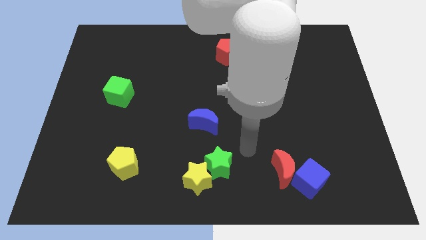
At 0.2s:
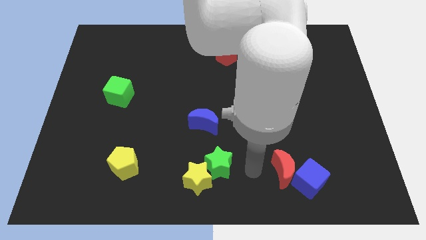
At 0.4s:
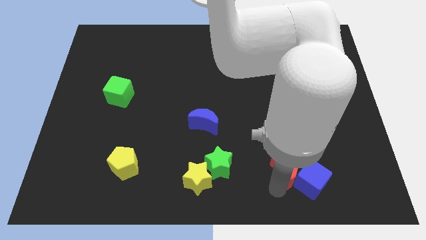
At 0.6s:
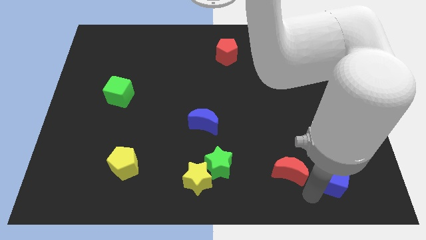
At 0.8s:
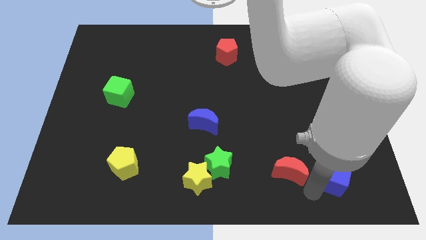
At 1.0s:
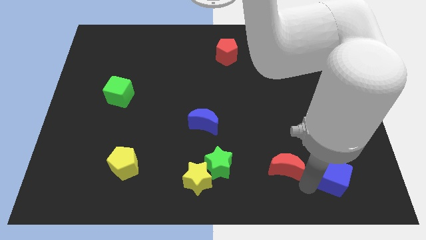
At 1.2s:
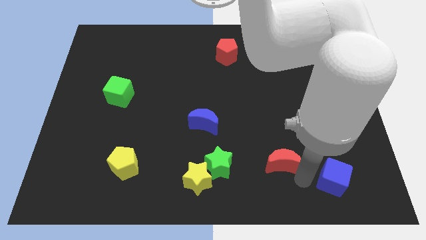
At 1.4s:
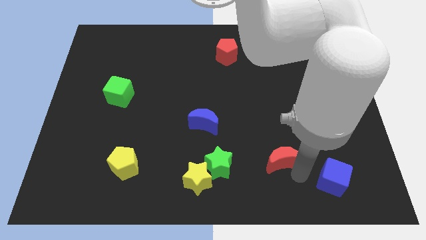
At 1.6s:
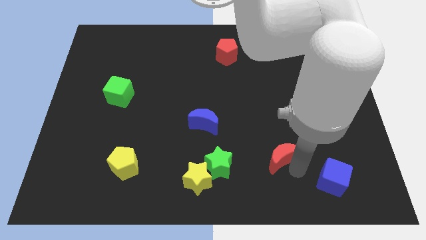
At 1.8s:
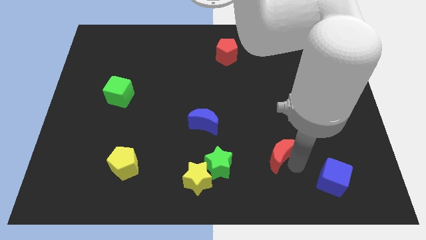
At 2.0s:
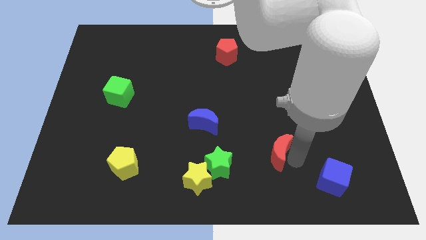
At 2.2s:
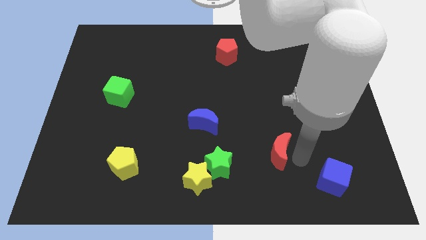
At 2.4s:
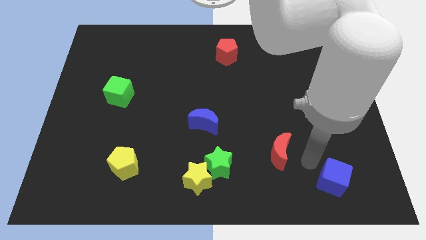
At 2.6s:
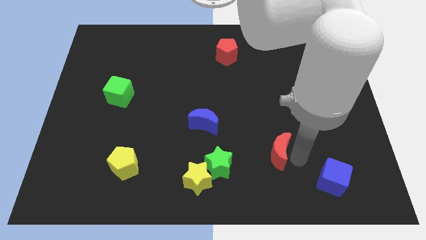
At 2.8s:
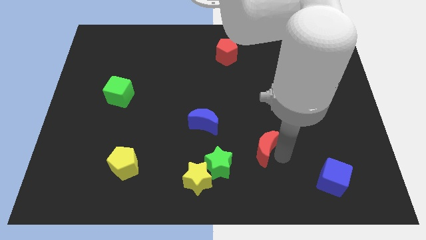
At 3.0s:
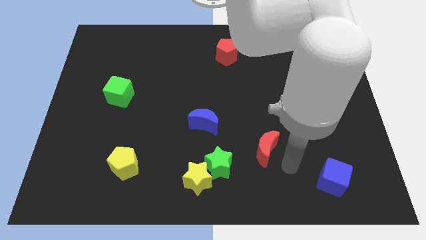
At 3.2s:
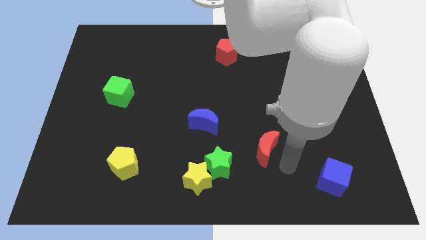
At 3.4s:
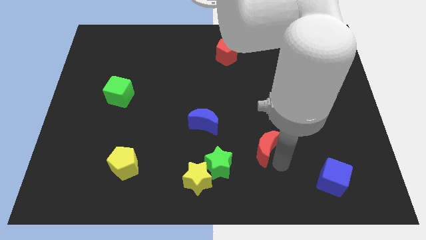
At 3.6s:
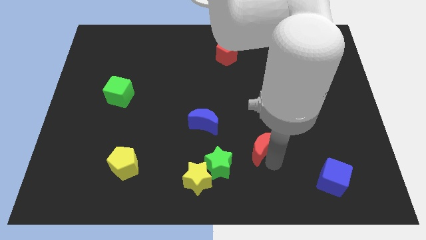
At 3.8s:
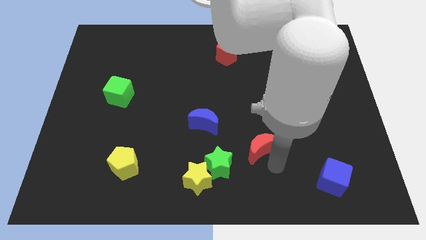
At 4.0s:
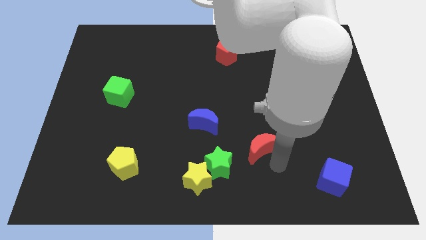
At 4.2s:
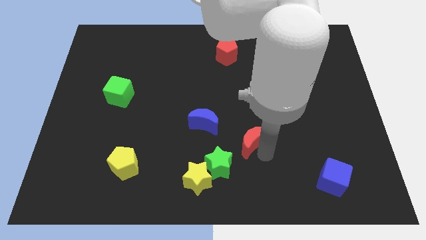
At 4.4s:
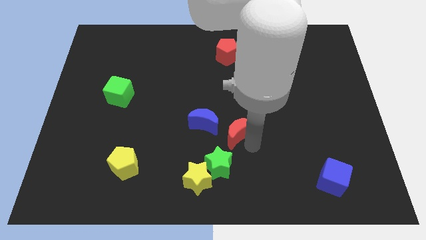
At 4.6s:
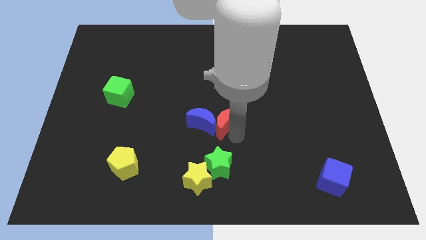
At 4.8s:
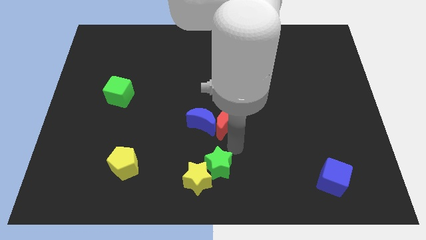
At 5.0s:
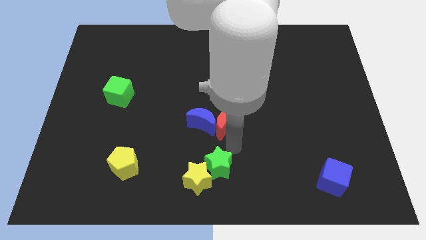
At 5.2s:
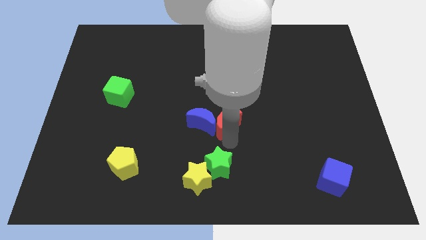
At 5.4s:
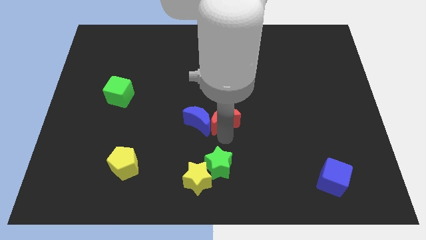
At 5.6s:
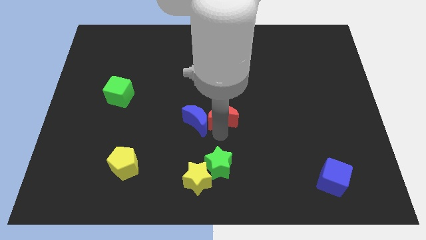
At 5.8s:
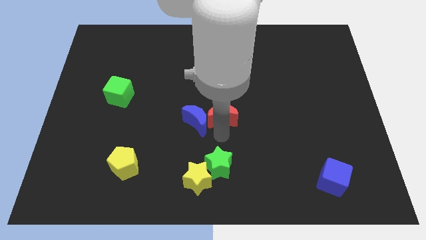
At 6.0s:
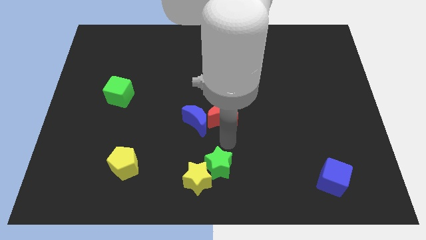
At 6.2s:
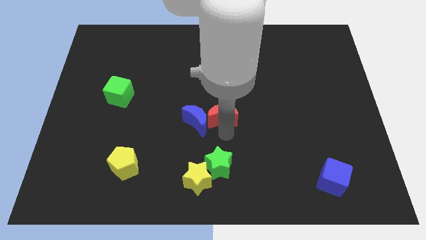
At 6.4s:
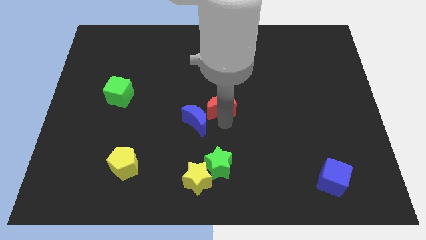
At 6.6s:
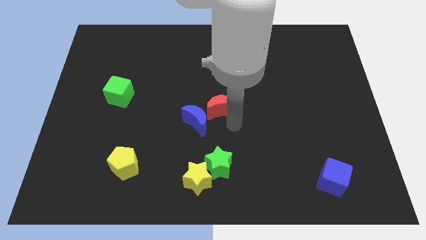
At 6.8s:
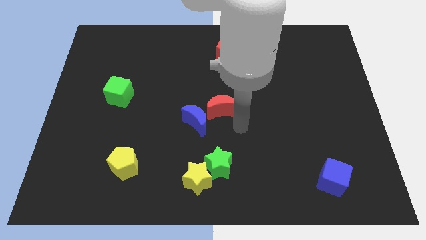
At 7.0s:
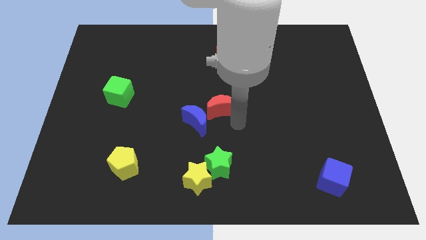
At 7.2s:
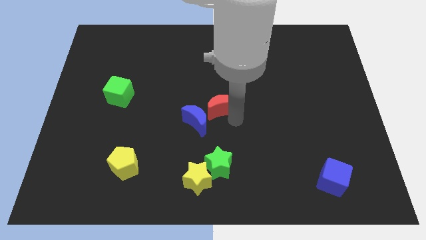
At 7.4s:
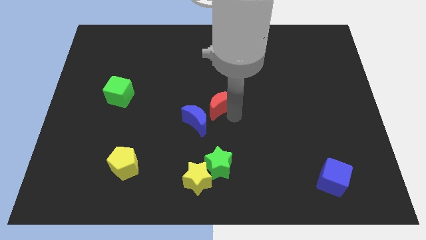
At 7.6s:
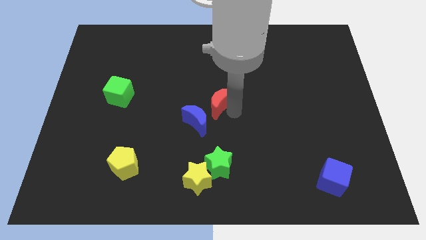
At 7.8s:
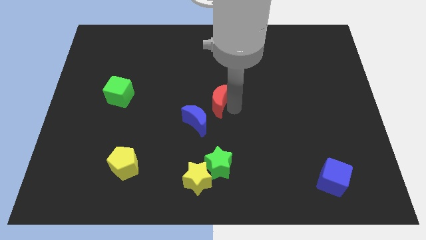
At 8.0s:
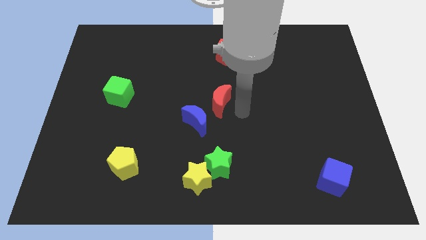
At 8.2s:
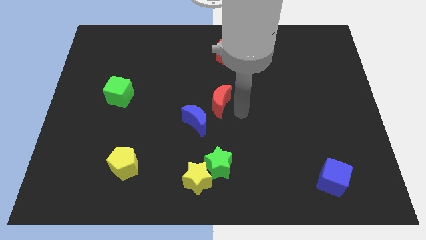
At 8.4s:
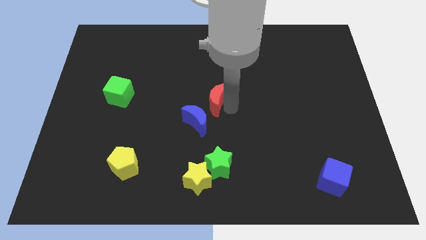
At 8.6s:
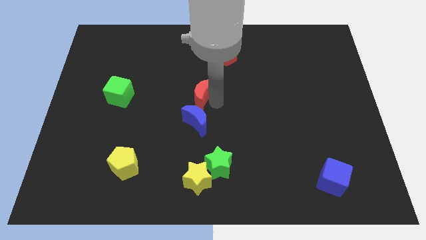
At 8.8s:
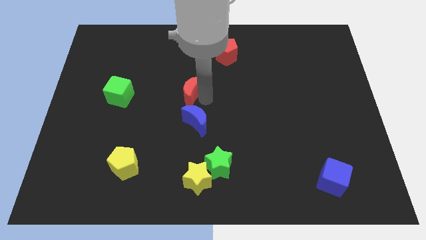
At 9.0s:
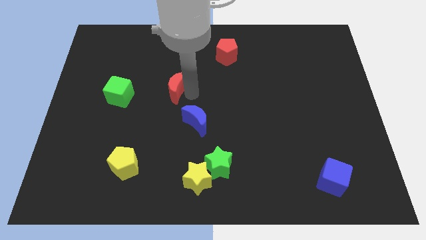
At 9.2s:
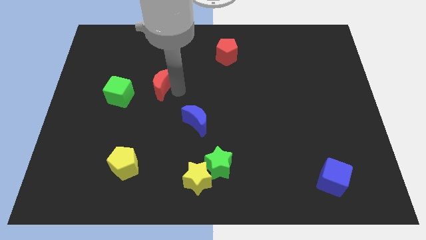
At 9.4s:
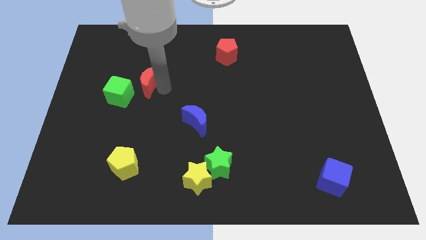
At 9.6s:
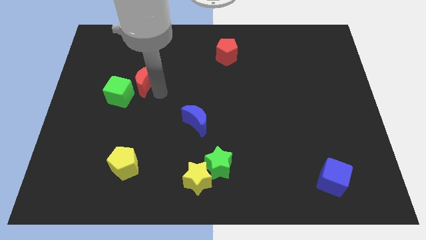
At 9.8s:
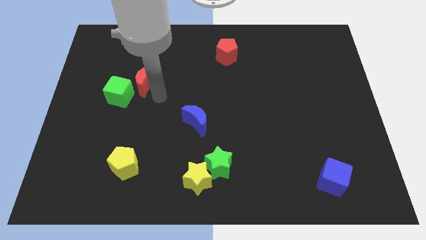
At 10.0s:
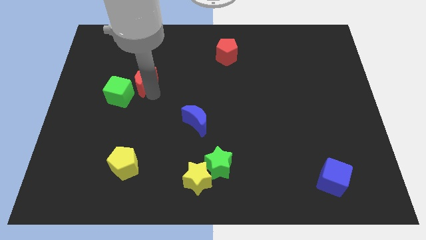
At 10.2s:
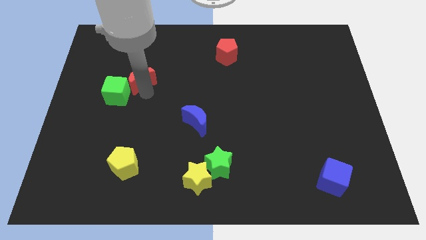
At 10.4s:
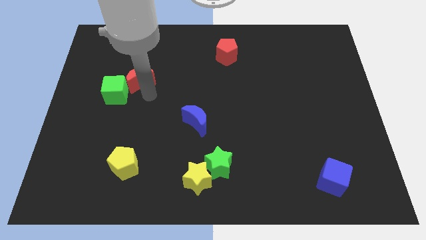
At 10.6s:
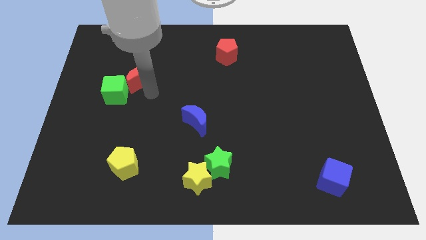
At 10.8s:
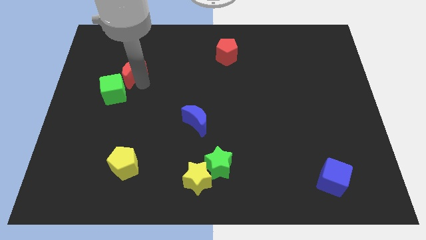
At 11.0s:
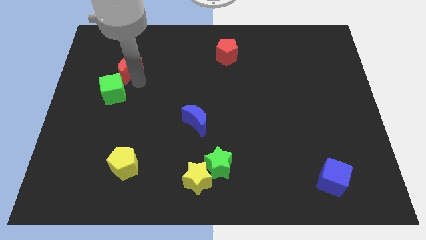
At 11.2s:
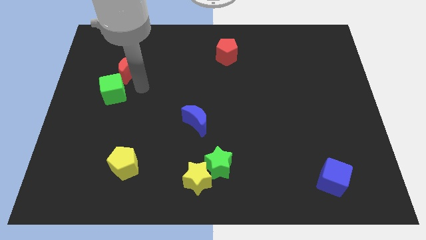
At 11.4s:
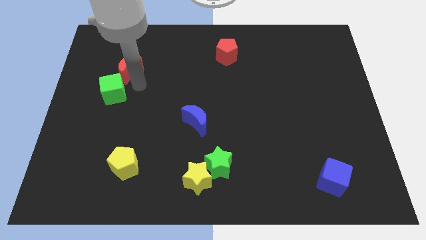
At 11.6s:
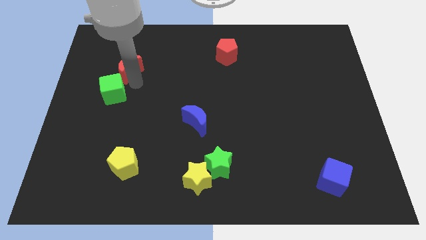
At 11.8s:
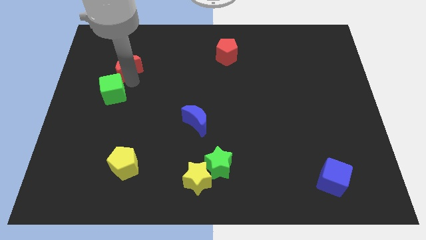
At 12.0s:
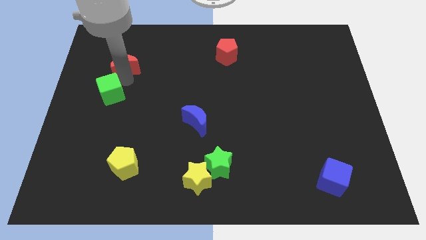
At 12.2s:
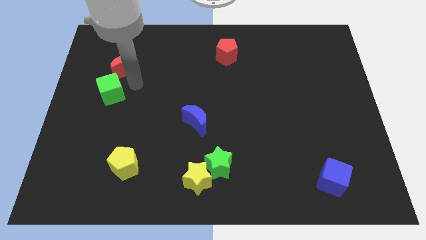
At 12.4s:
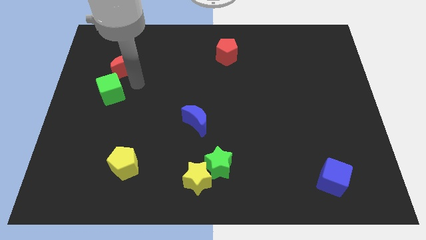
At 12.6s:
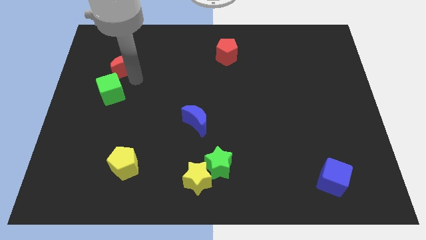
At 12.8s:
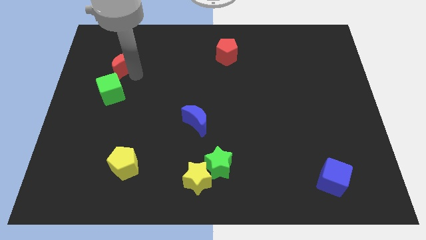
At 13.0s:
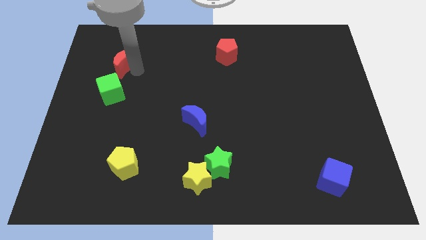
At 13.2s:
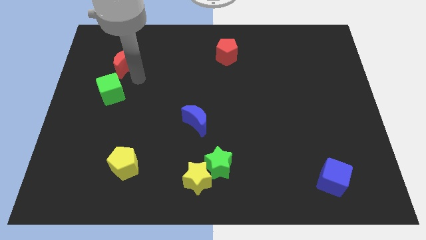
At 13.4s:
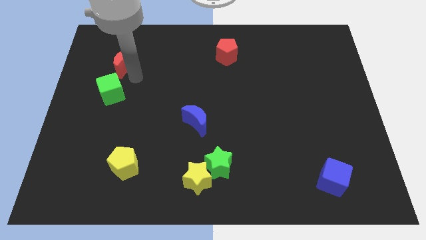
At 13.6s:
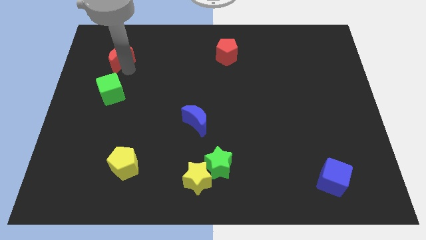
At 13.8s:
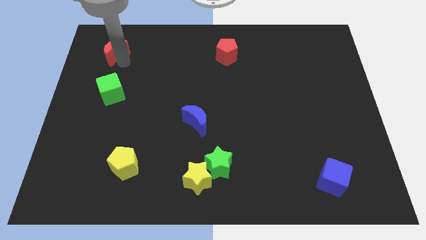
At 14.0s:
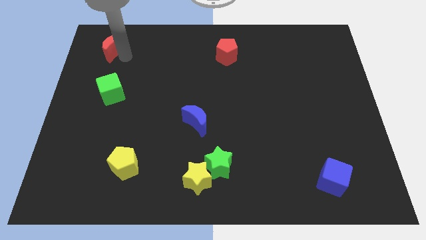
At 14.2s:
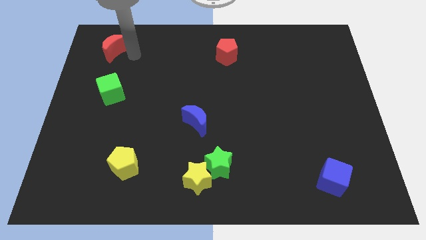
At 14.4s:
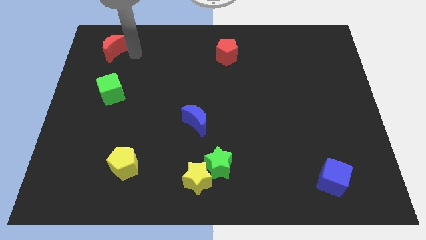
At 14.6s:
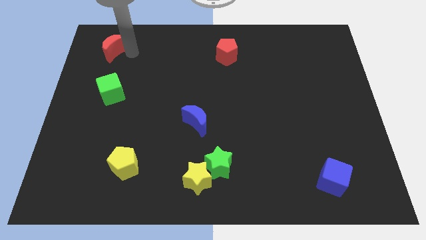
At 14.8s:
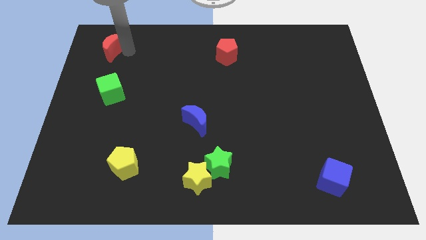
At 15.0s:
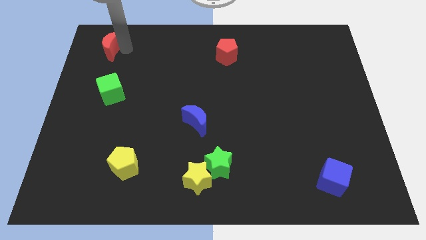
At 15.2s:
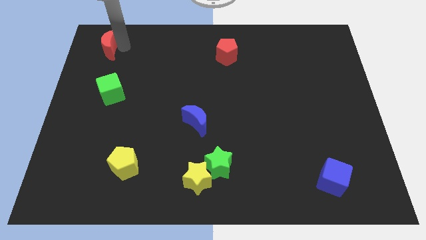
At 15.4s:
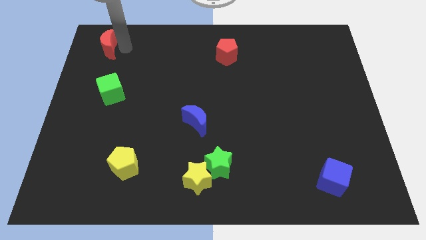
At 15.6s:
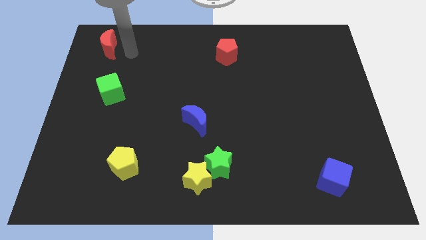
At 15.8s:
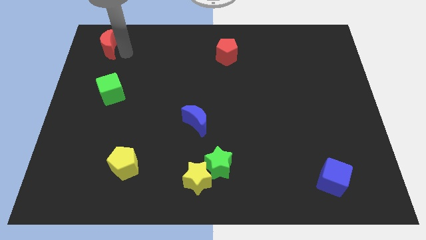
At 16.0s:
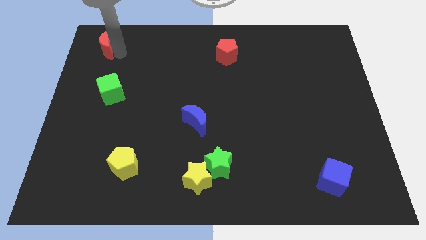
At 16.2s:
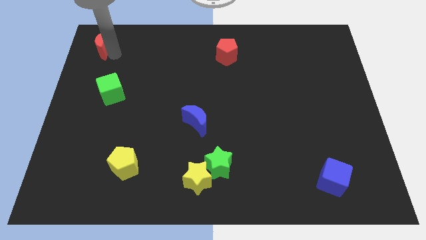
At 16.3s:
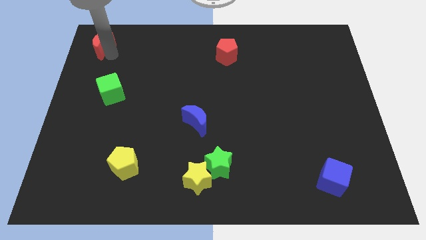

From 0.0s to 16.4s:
push the red moon to the top left of the board
